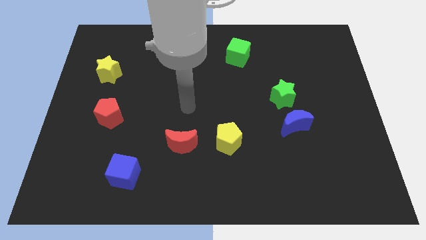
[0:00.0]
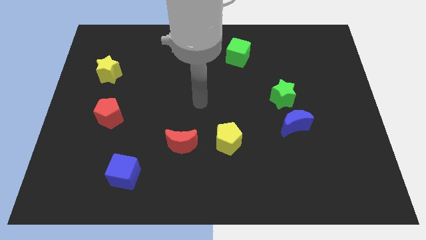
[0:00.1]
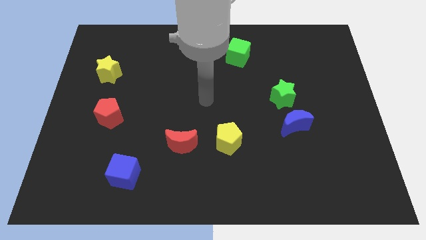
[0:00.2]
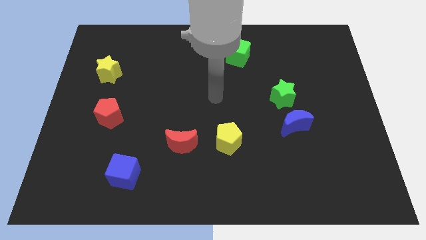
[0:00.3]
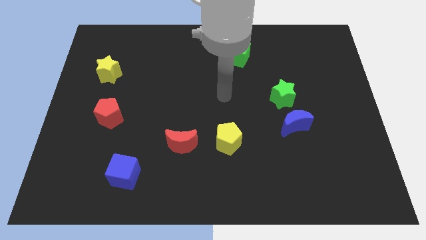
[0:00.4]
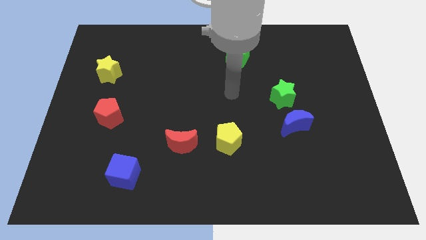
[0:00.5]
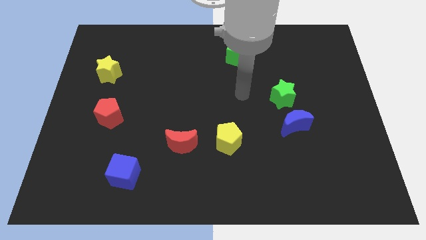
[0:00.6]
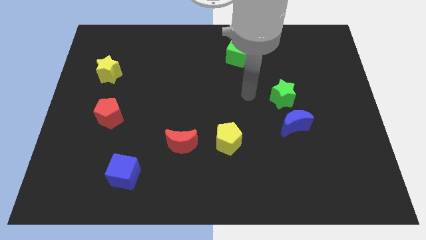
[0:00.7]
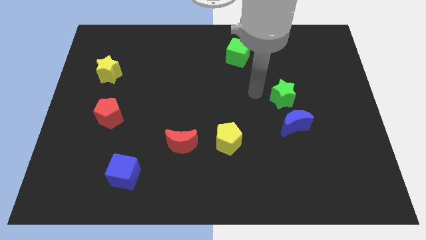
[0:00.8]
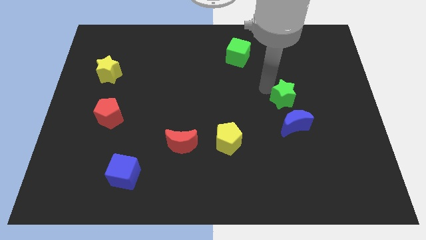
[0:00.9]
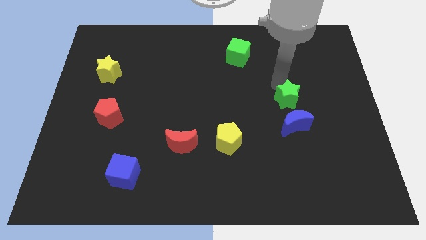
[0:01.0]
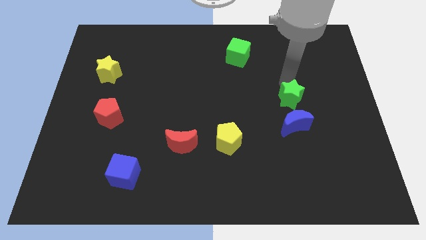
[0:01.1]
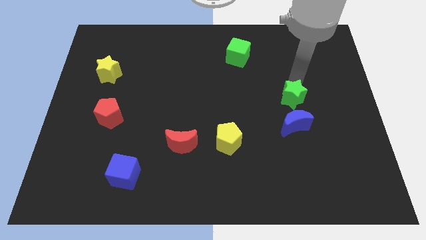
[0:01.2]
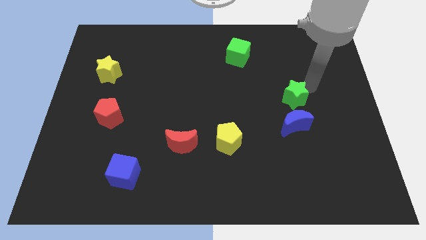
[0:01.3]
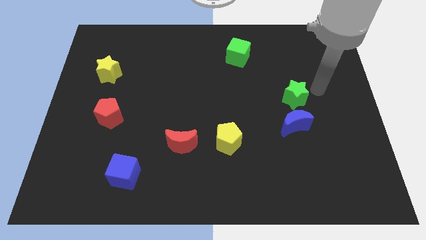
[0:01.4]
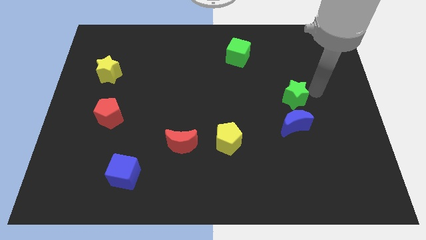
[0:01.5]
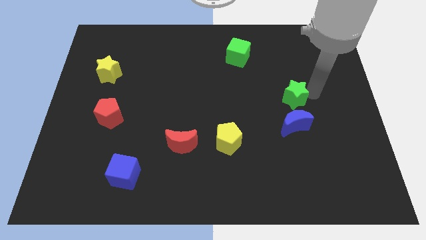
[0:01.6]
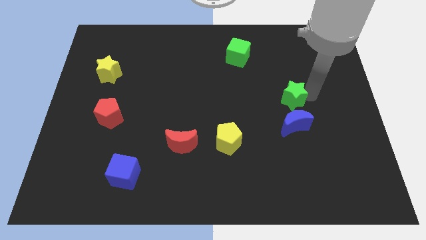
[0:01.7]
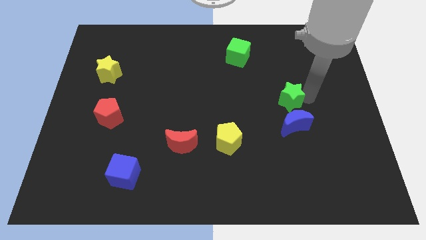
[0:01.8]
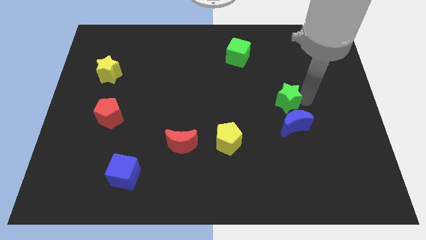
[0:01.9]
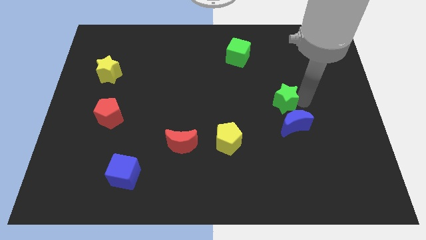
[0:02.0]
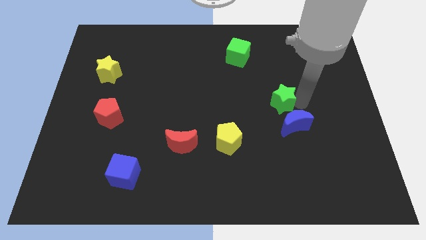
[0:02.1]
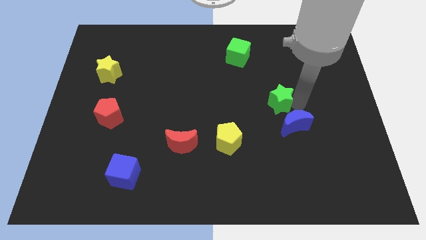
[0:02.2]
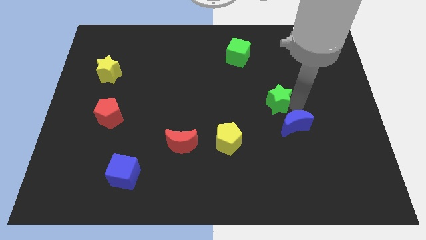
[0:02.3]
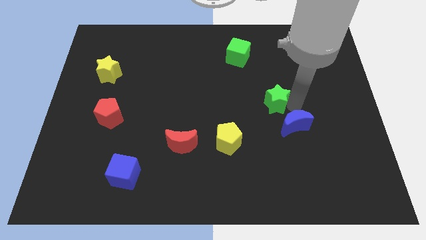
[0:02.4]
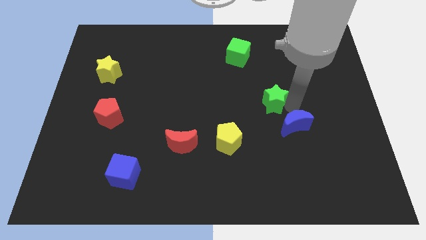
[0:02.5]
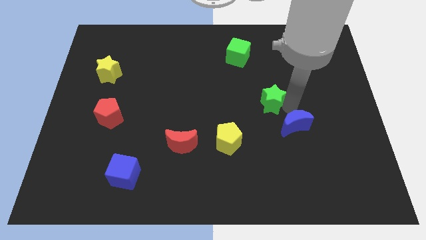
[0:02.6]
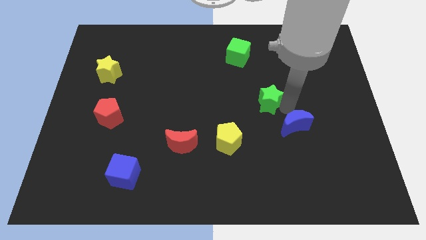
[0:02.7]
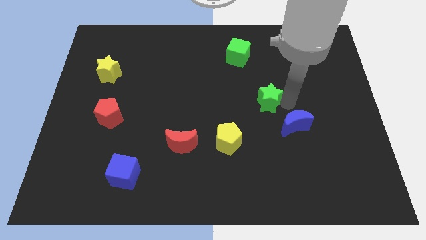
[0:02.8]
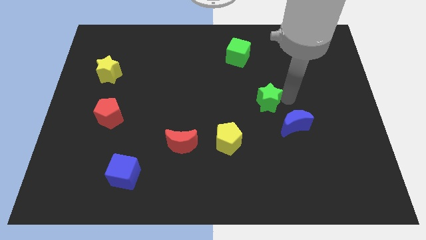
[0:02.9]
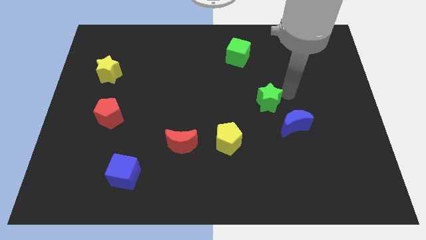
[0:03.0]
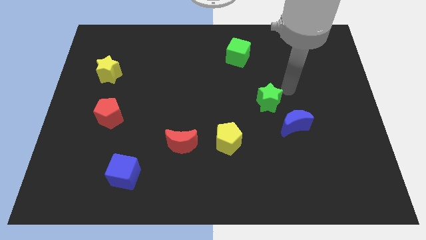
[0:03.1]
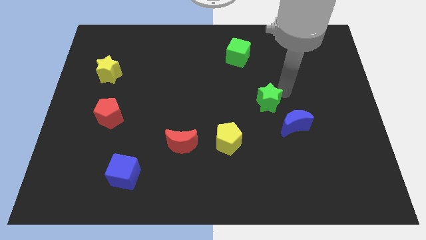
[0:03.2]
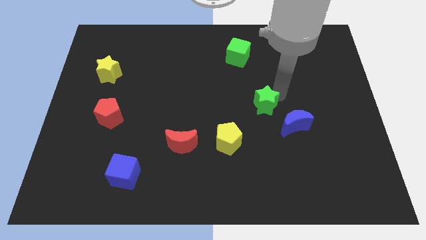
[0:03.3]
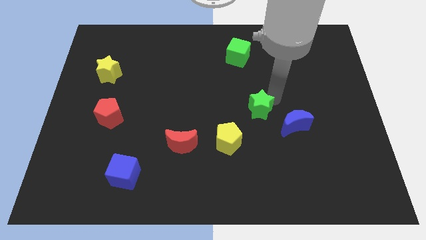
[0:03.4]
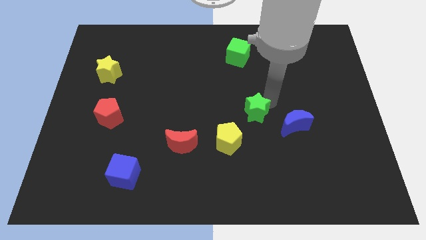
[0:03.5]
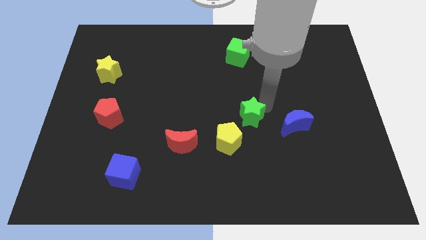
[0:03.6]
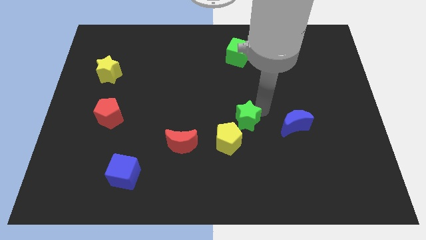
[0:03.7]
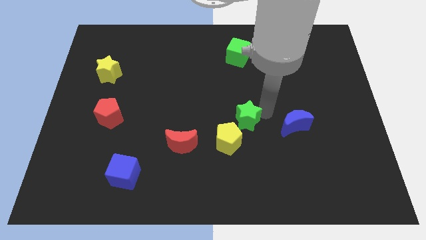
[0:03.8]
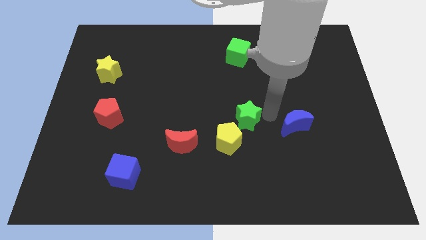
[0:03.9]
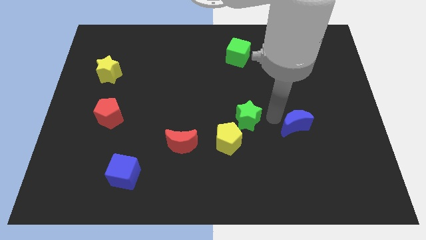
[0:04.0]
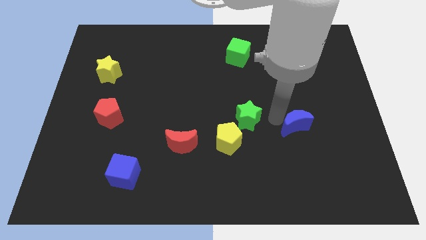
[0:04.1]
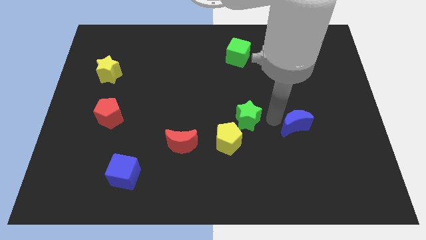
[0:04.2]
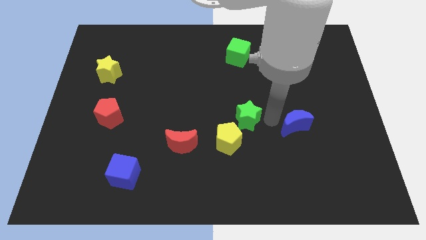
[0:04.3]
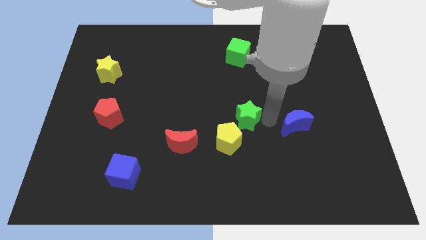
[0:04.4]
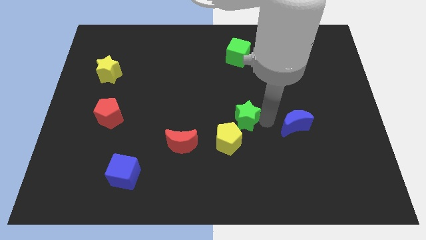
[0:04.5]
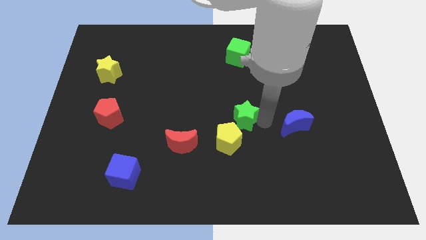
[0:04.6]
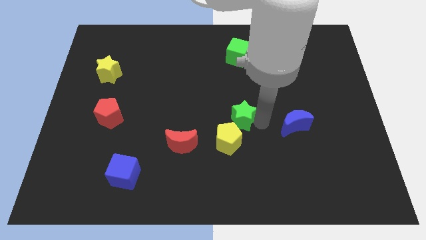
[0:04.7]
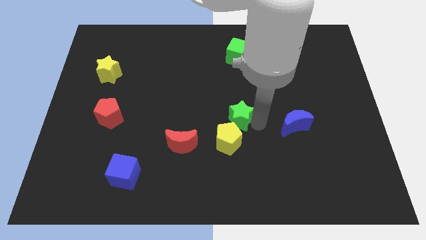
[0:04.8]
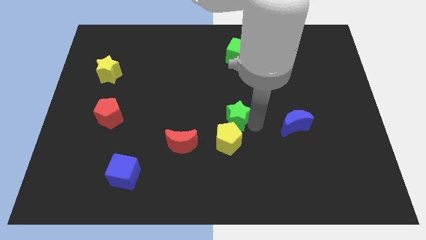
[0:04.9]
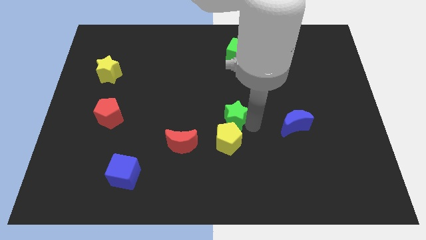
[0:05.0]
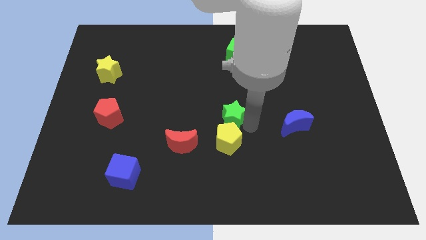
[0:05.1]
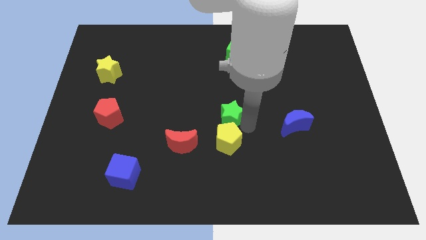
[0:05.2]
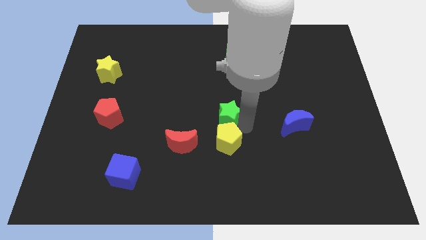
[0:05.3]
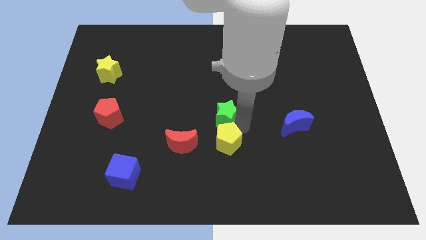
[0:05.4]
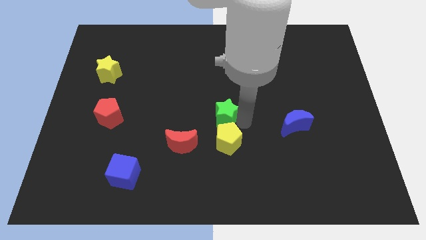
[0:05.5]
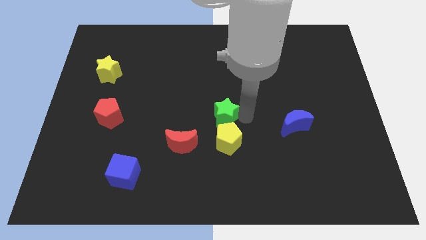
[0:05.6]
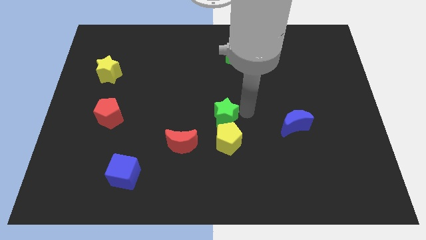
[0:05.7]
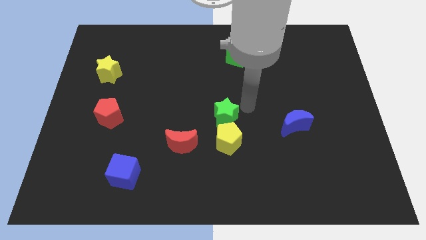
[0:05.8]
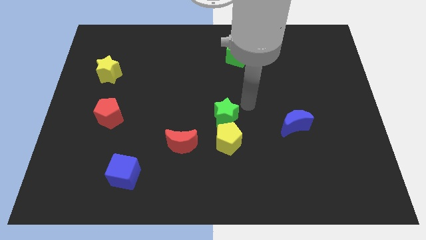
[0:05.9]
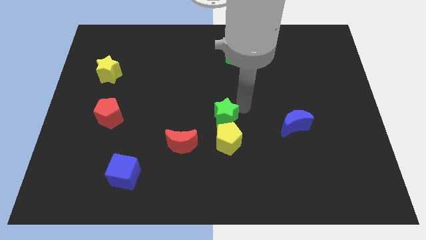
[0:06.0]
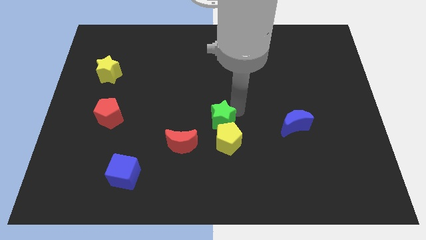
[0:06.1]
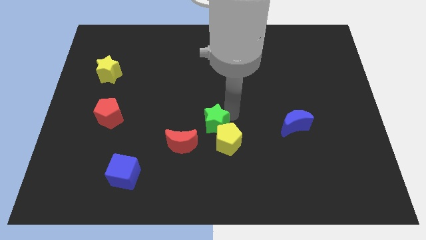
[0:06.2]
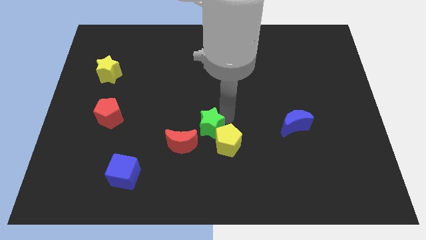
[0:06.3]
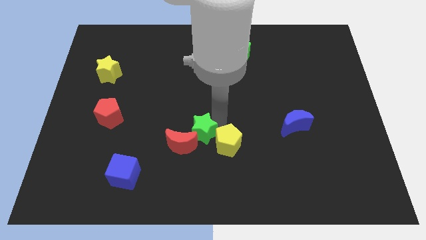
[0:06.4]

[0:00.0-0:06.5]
move the green star close to the red moon

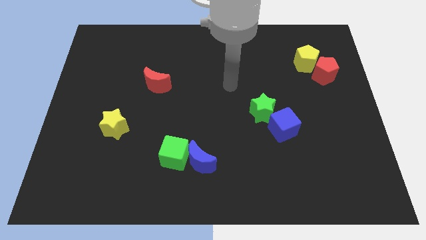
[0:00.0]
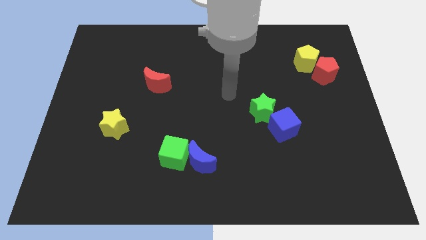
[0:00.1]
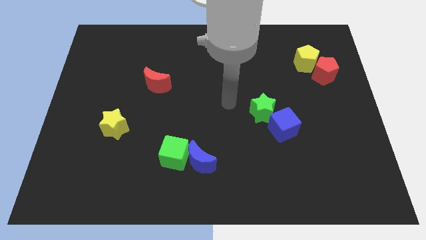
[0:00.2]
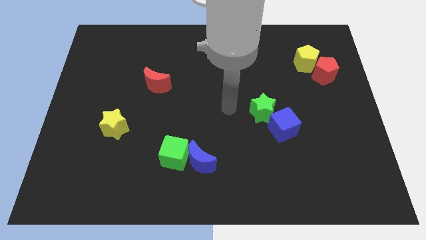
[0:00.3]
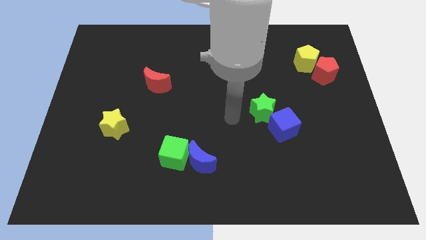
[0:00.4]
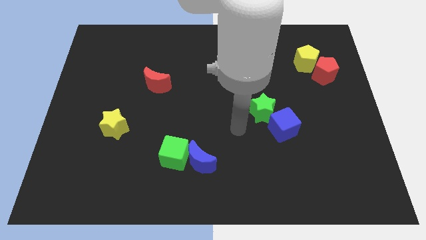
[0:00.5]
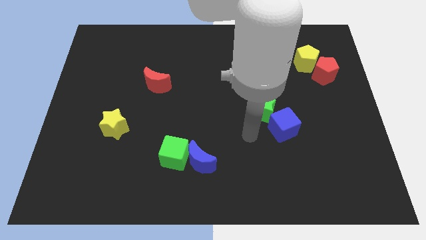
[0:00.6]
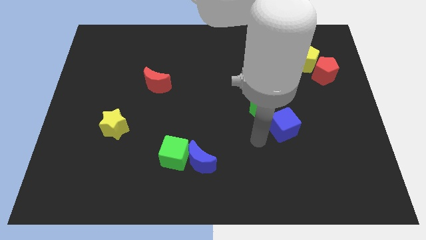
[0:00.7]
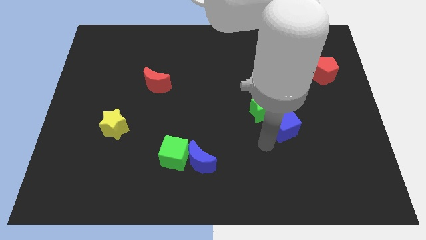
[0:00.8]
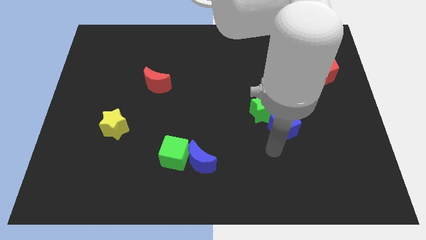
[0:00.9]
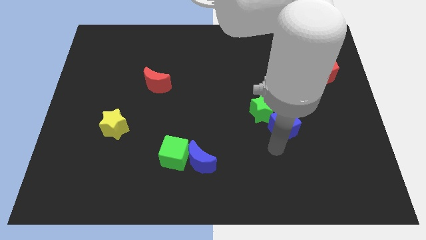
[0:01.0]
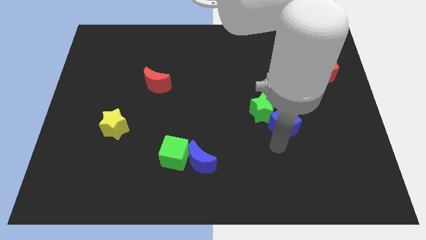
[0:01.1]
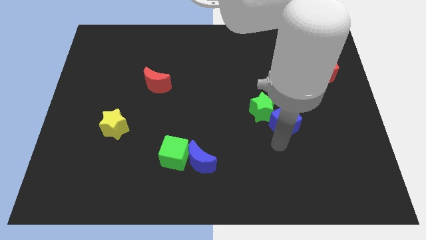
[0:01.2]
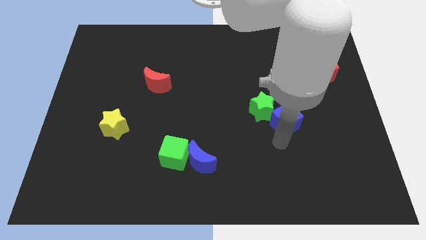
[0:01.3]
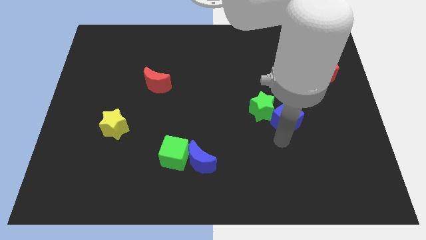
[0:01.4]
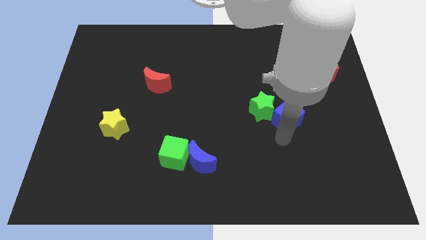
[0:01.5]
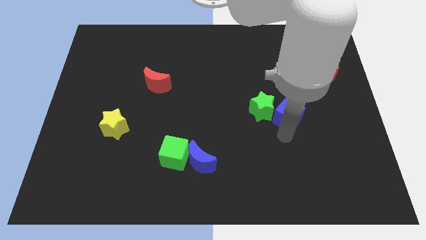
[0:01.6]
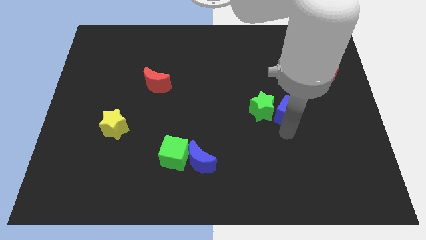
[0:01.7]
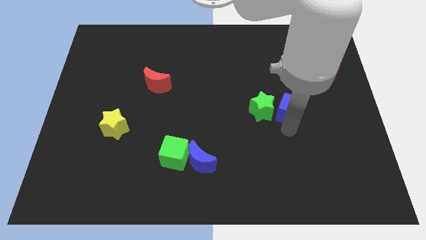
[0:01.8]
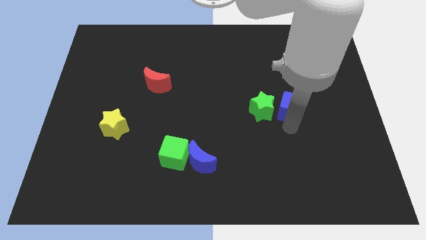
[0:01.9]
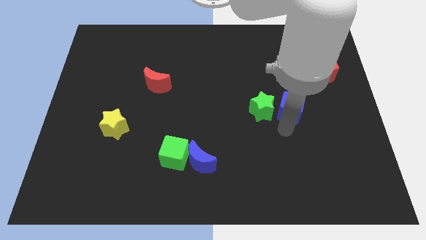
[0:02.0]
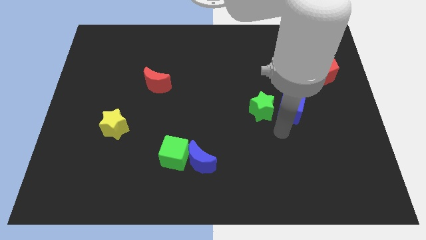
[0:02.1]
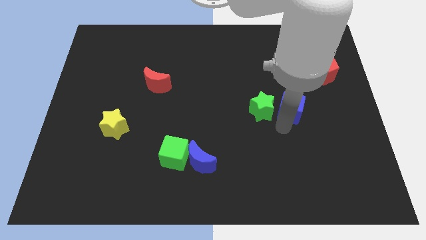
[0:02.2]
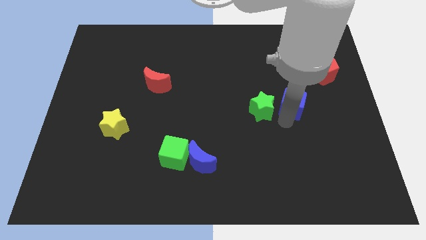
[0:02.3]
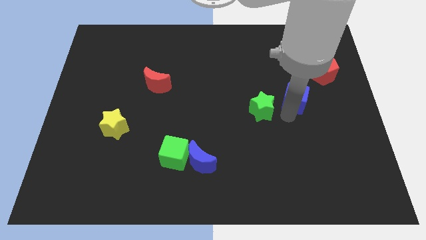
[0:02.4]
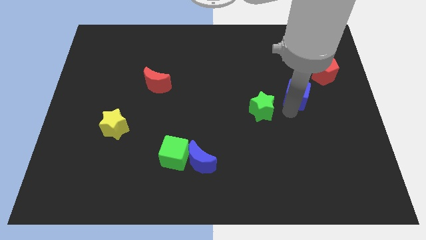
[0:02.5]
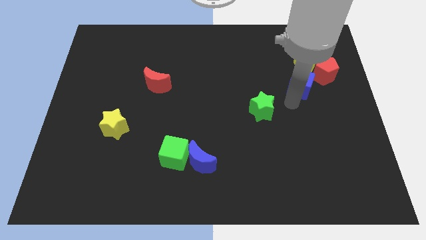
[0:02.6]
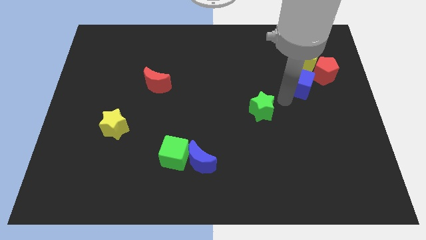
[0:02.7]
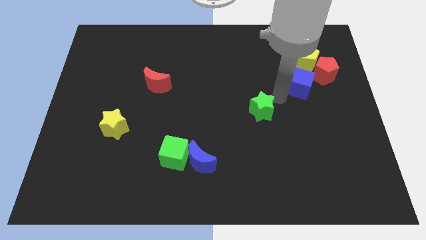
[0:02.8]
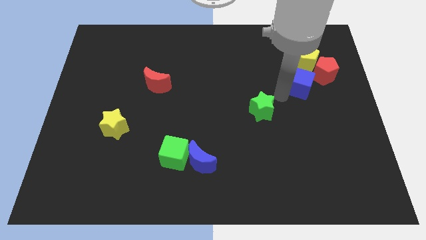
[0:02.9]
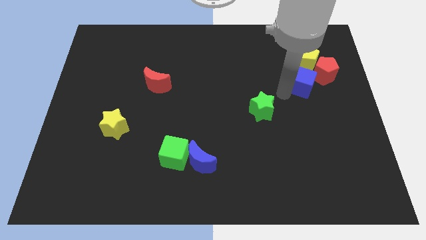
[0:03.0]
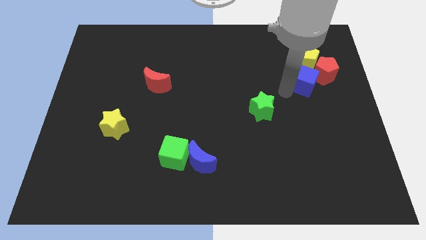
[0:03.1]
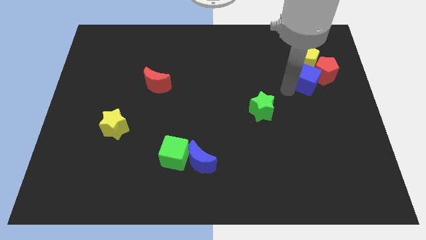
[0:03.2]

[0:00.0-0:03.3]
move the blue cube to the red pentagon
